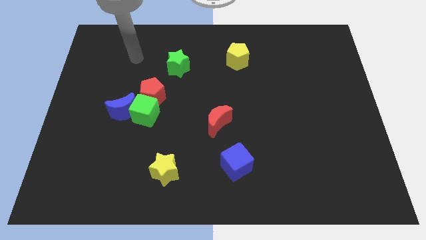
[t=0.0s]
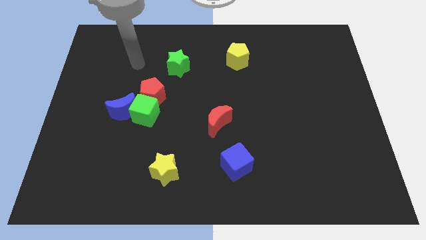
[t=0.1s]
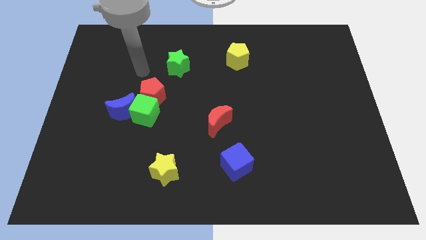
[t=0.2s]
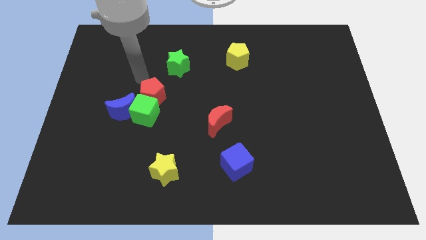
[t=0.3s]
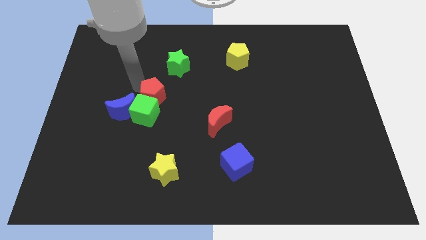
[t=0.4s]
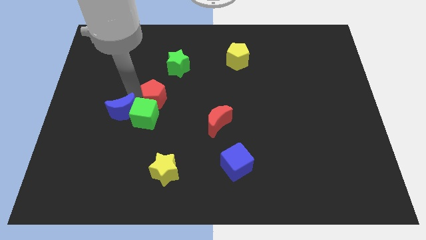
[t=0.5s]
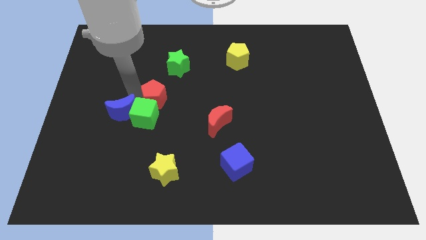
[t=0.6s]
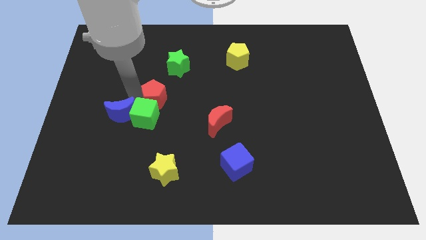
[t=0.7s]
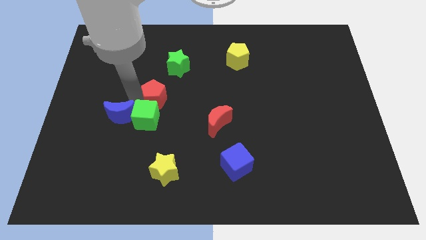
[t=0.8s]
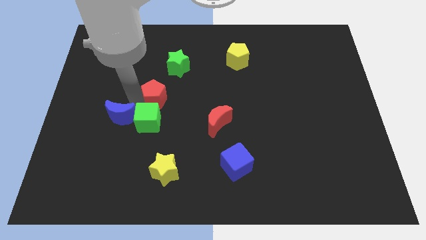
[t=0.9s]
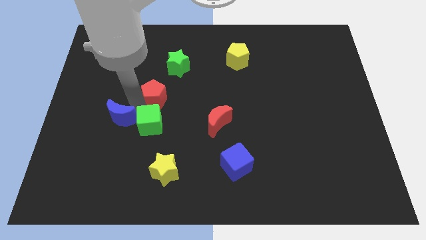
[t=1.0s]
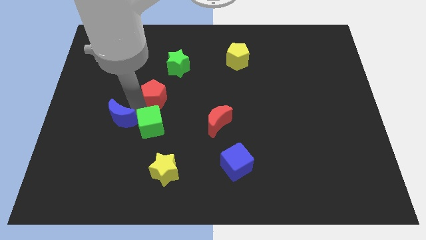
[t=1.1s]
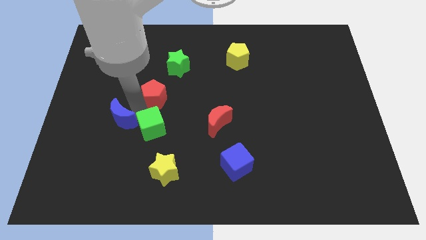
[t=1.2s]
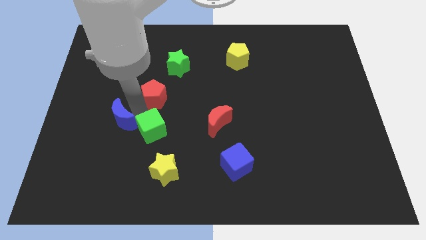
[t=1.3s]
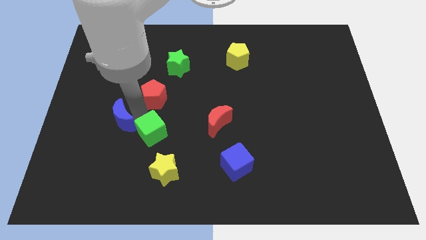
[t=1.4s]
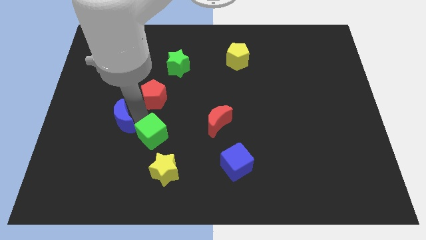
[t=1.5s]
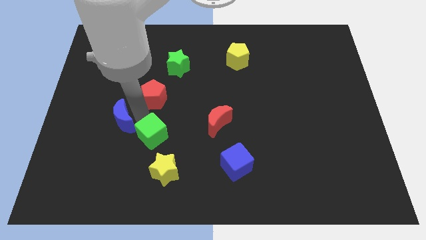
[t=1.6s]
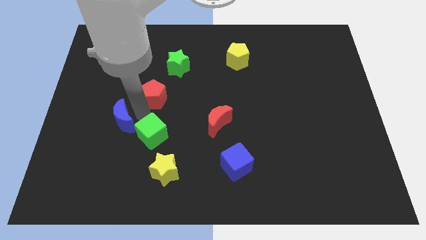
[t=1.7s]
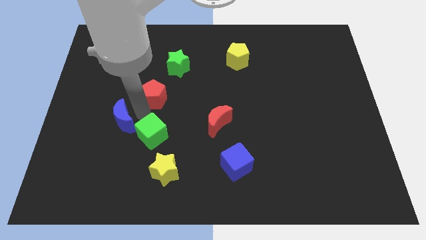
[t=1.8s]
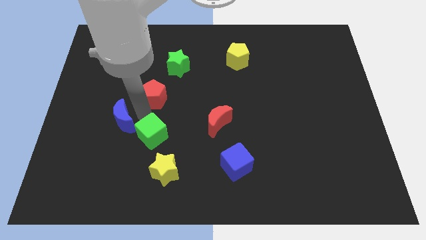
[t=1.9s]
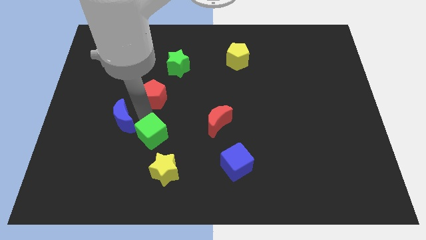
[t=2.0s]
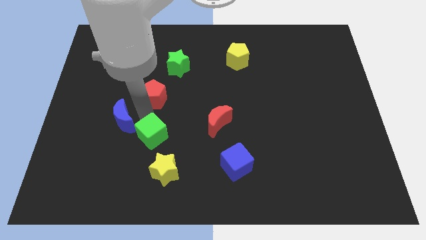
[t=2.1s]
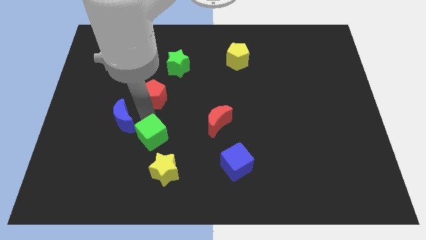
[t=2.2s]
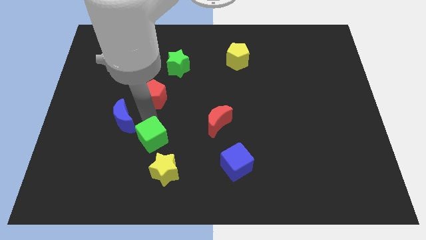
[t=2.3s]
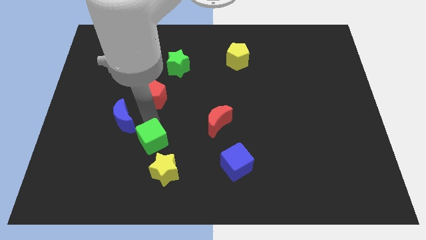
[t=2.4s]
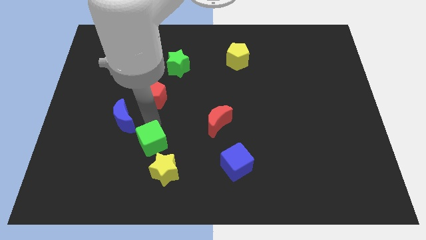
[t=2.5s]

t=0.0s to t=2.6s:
move the green cube away from the blue moon and red pentagon

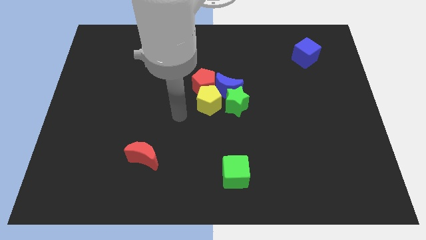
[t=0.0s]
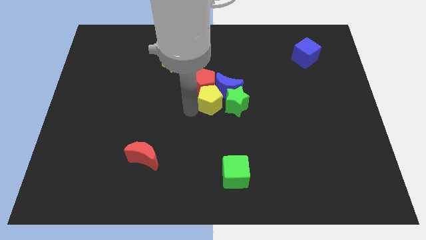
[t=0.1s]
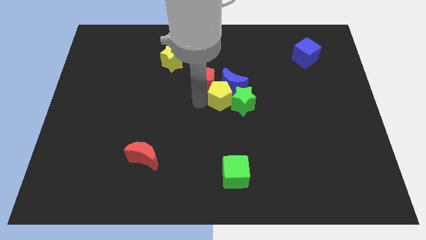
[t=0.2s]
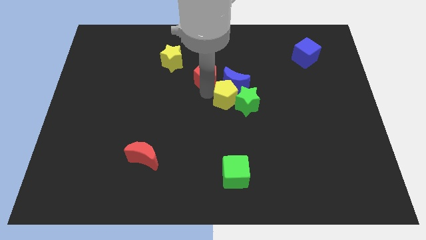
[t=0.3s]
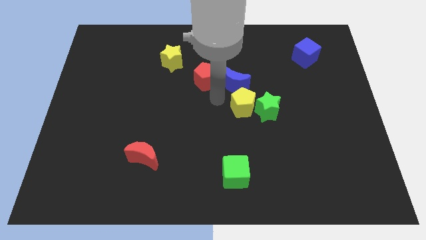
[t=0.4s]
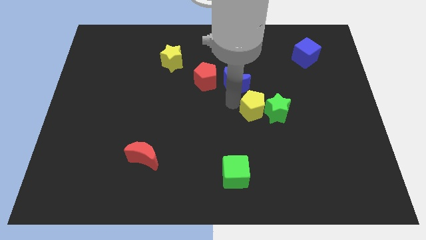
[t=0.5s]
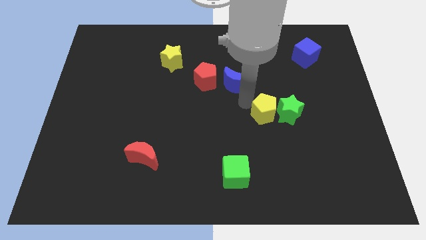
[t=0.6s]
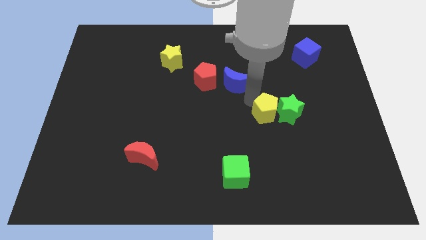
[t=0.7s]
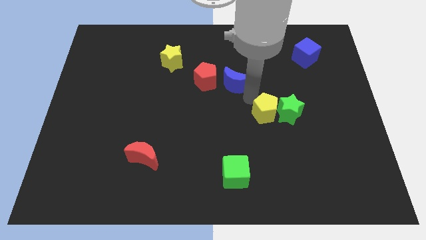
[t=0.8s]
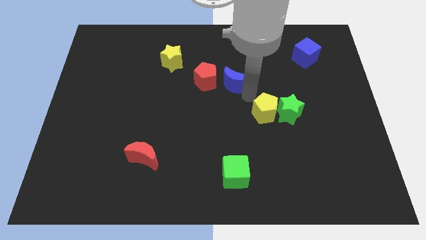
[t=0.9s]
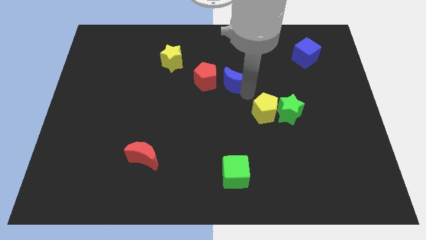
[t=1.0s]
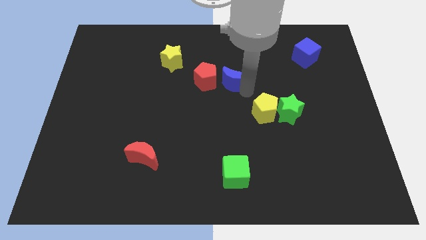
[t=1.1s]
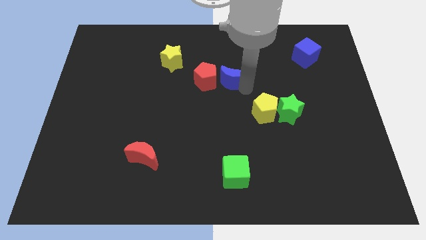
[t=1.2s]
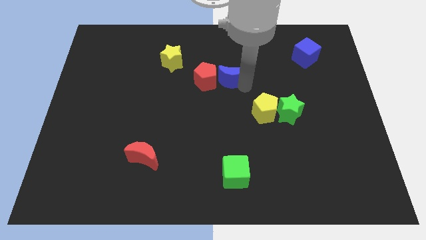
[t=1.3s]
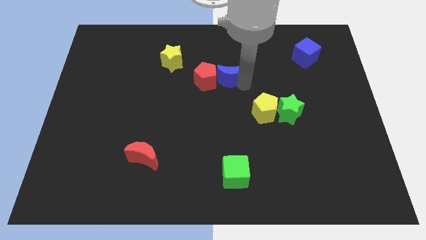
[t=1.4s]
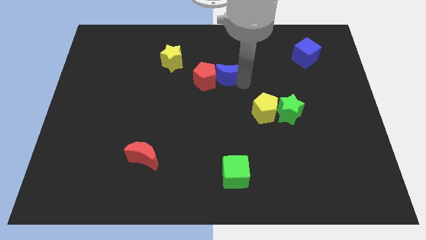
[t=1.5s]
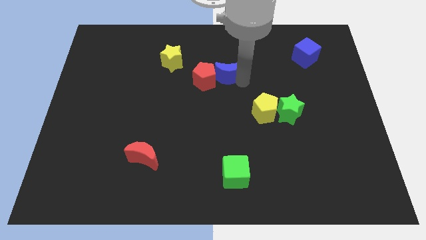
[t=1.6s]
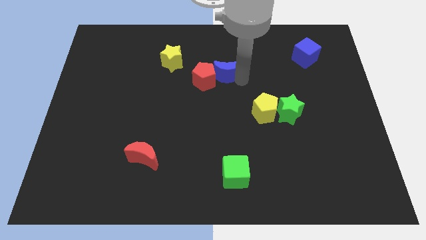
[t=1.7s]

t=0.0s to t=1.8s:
separate the blue moon from the clump

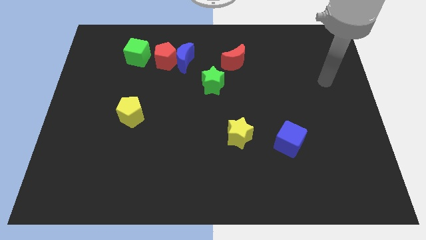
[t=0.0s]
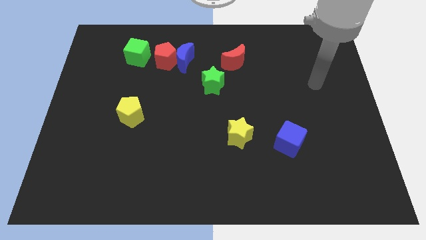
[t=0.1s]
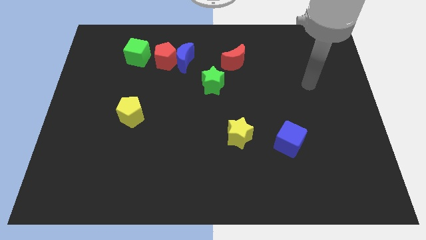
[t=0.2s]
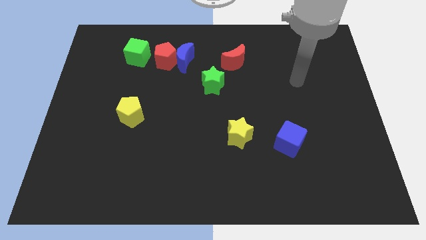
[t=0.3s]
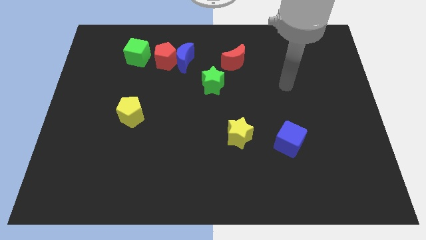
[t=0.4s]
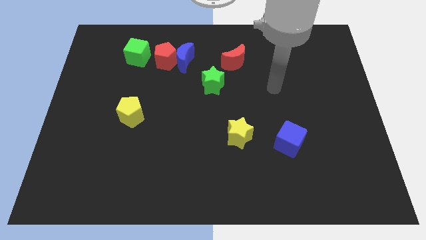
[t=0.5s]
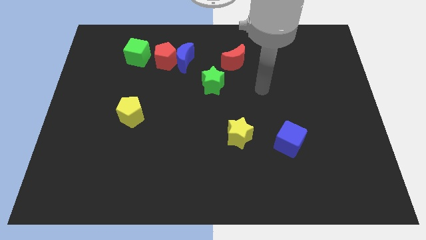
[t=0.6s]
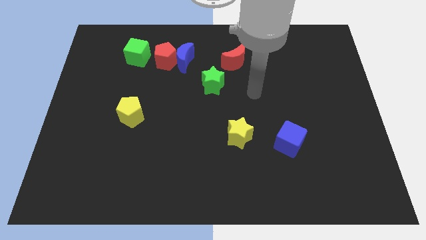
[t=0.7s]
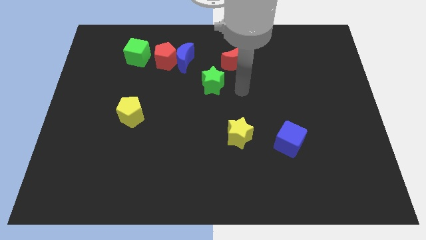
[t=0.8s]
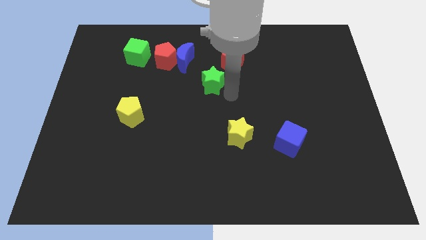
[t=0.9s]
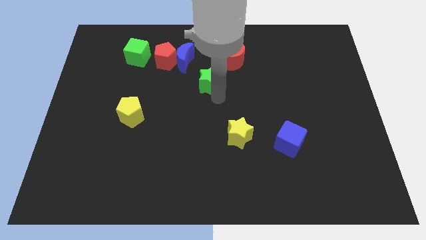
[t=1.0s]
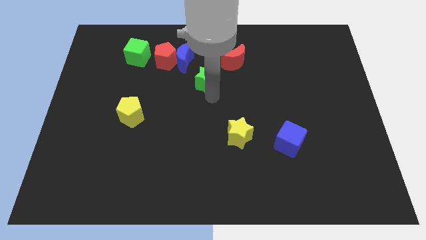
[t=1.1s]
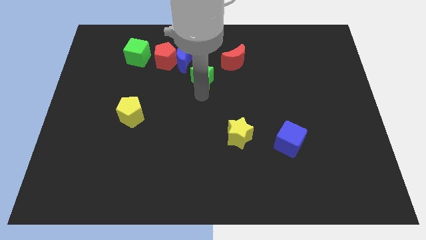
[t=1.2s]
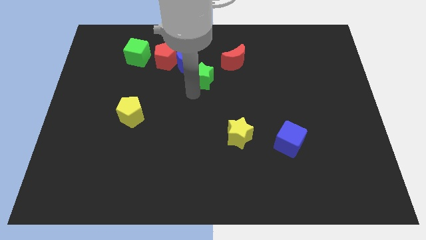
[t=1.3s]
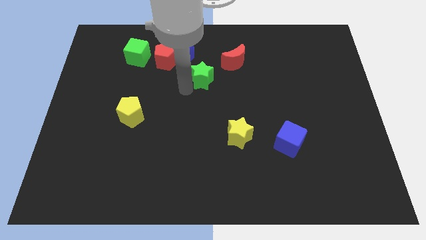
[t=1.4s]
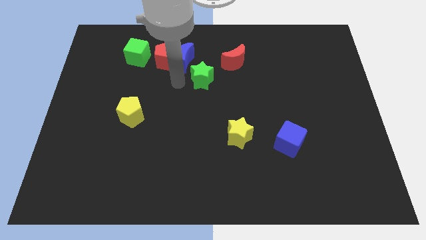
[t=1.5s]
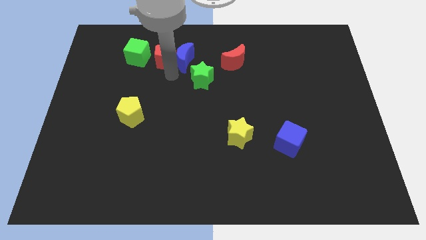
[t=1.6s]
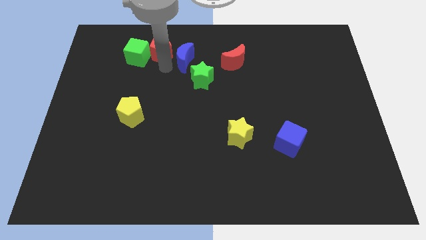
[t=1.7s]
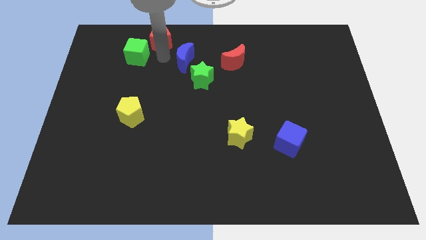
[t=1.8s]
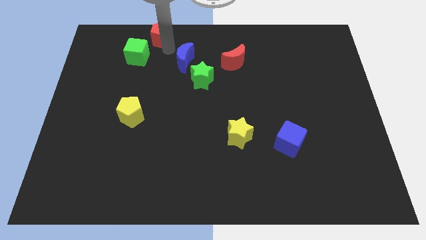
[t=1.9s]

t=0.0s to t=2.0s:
separate the blue moon from the red pentagon

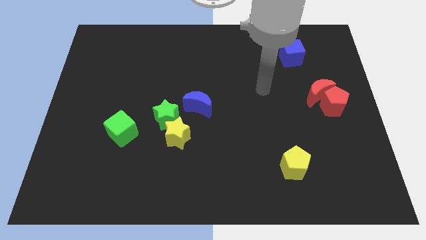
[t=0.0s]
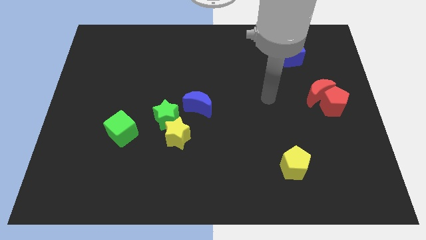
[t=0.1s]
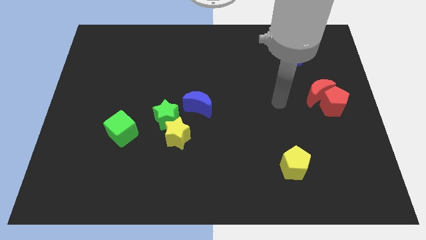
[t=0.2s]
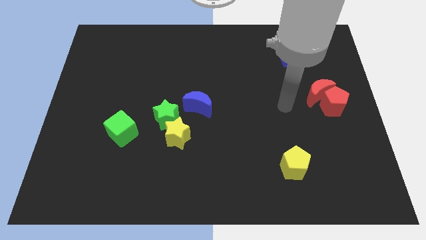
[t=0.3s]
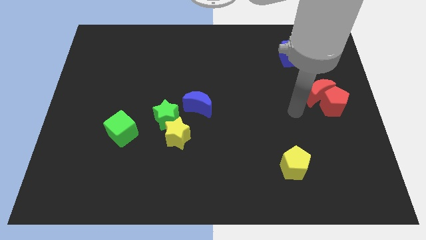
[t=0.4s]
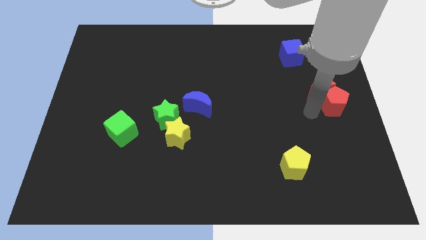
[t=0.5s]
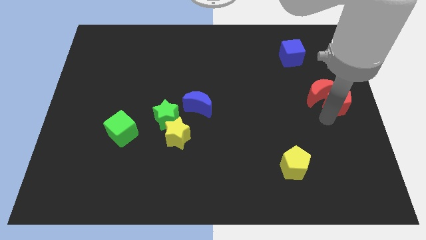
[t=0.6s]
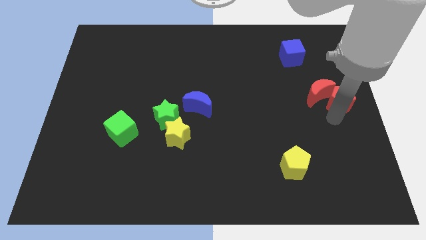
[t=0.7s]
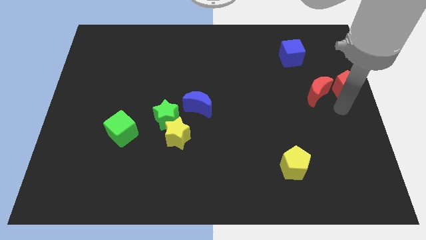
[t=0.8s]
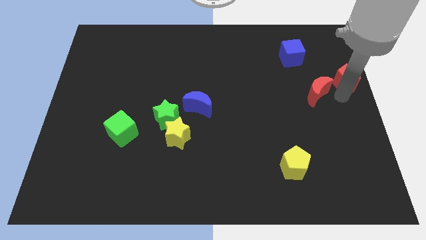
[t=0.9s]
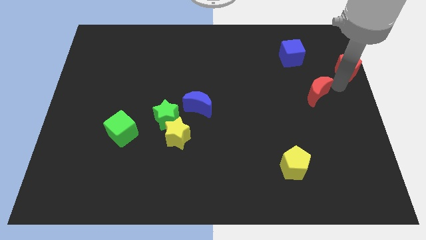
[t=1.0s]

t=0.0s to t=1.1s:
move the red moon away from the red pentagon

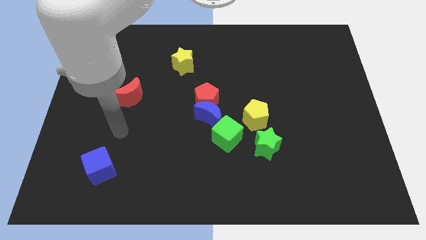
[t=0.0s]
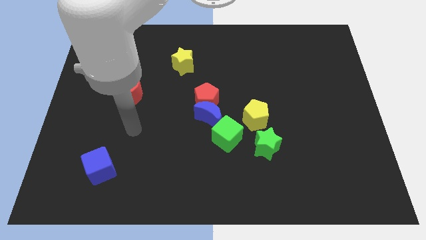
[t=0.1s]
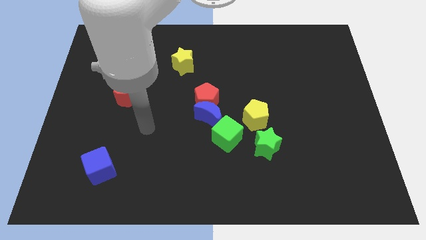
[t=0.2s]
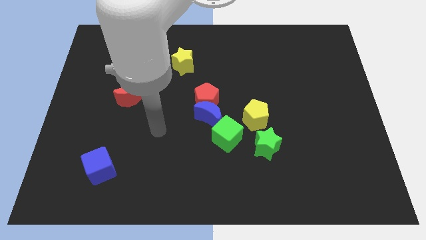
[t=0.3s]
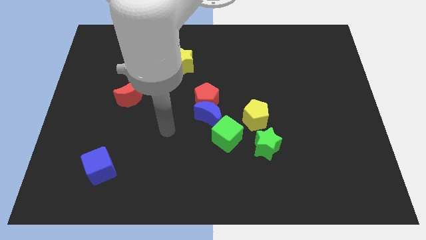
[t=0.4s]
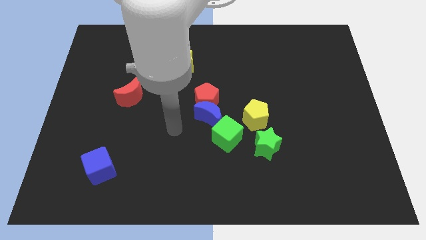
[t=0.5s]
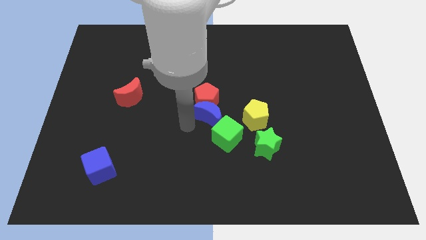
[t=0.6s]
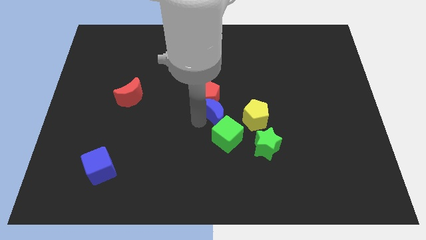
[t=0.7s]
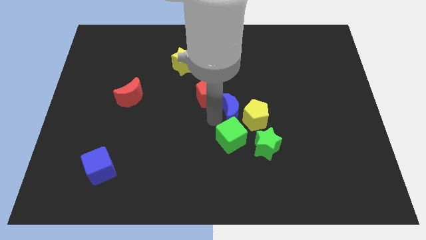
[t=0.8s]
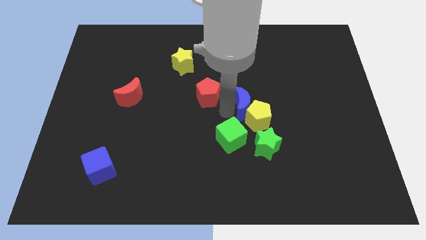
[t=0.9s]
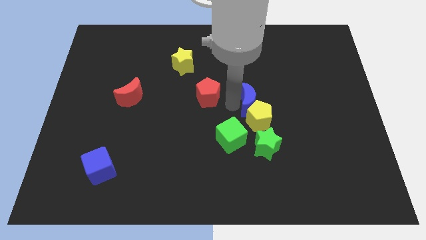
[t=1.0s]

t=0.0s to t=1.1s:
separate the red pentagon from the blue moon

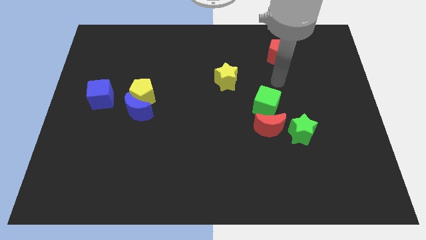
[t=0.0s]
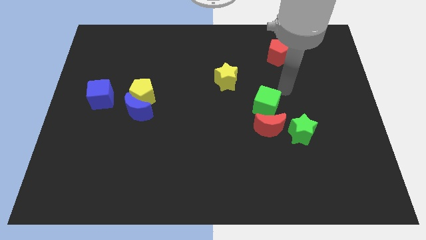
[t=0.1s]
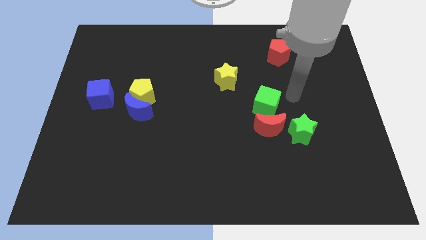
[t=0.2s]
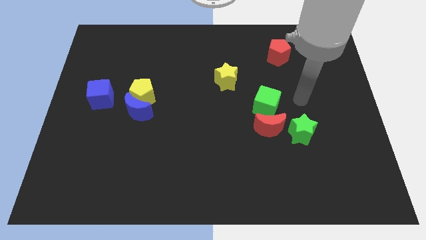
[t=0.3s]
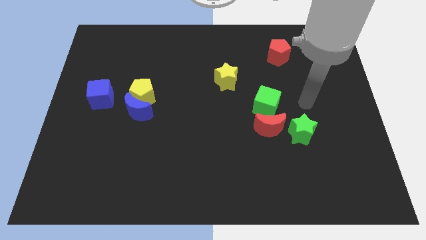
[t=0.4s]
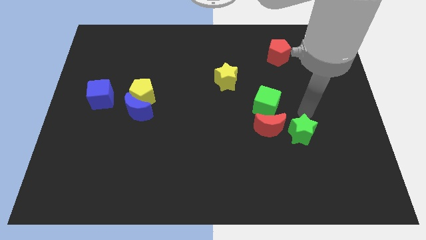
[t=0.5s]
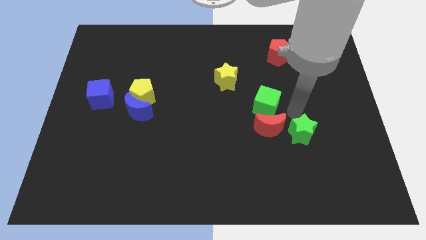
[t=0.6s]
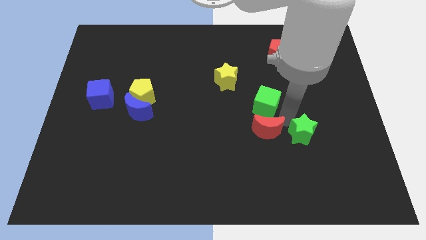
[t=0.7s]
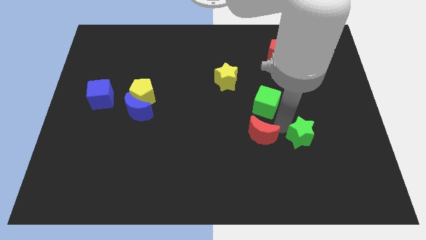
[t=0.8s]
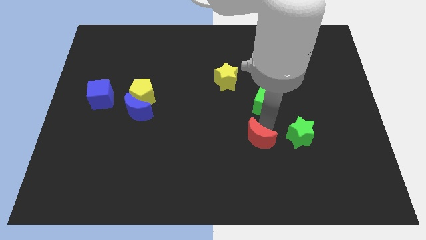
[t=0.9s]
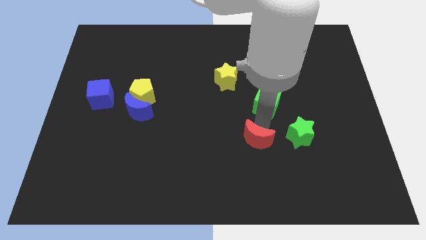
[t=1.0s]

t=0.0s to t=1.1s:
separate the green cube from the red moon
